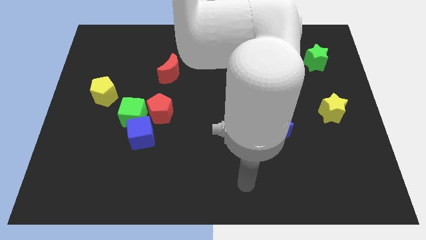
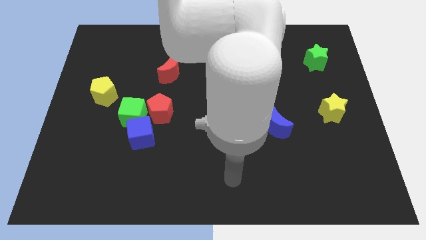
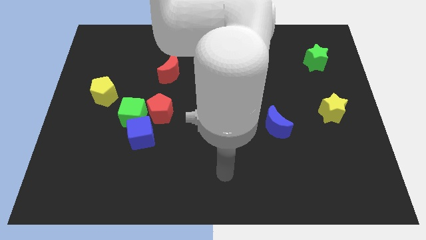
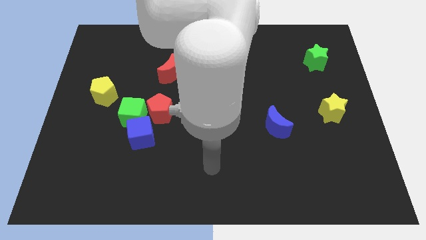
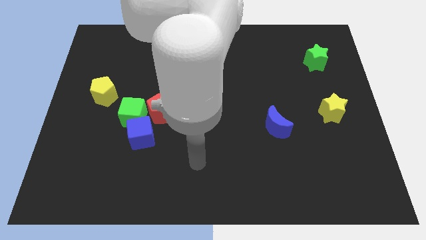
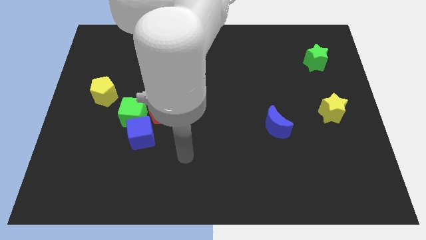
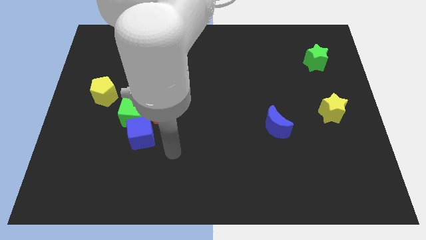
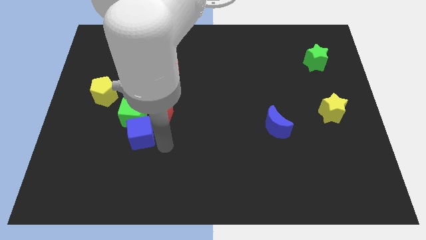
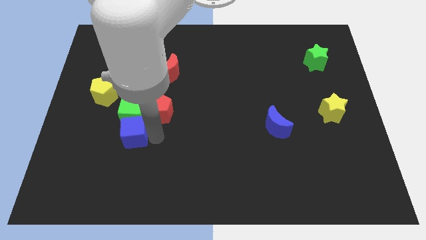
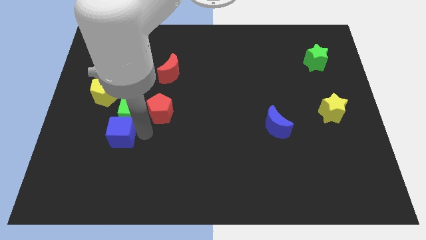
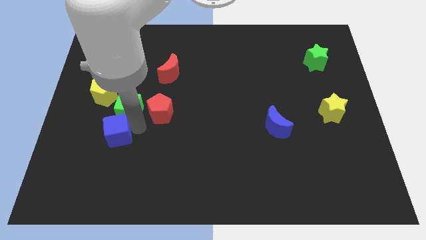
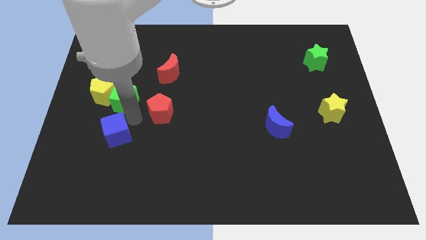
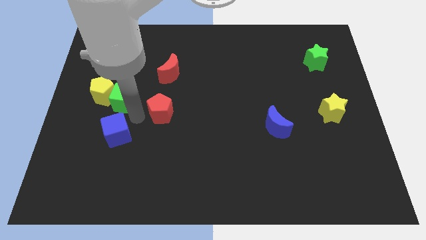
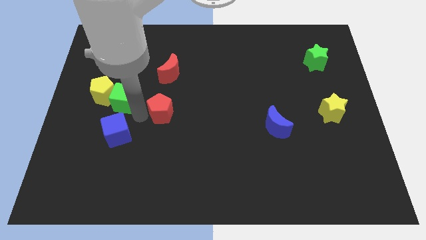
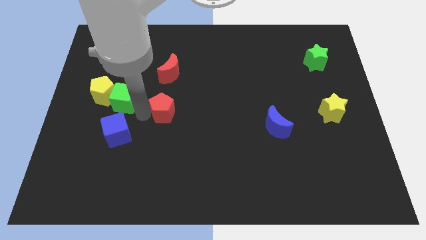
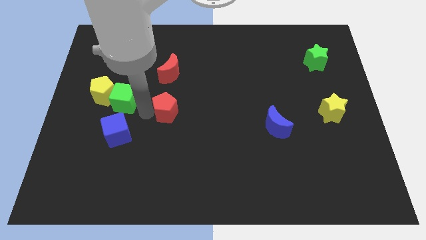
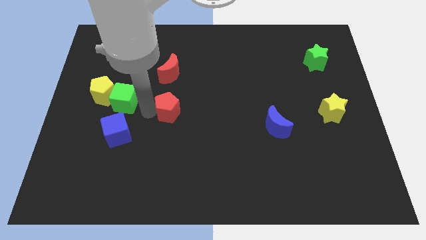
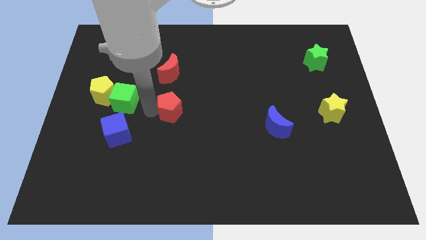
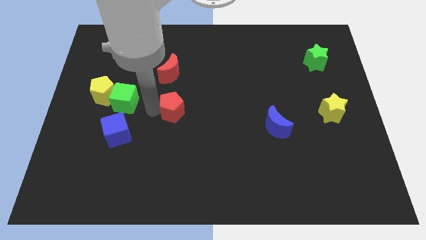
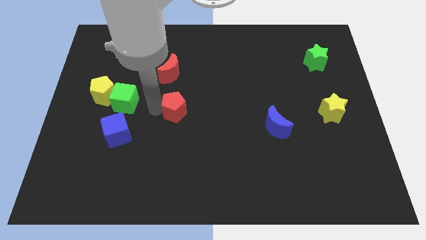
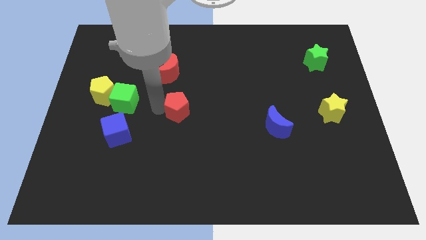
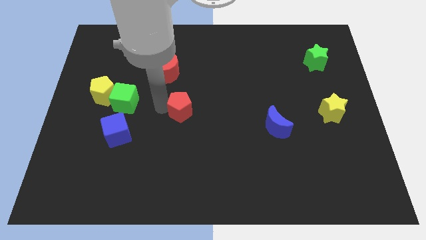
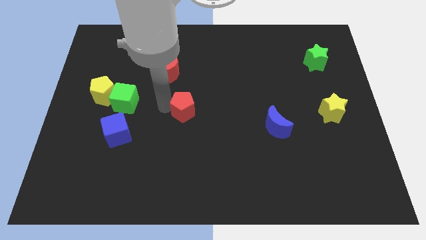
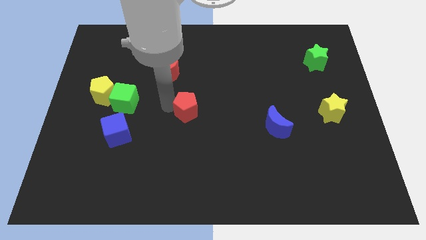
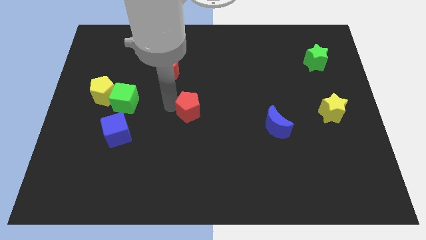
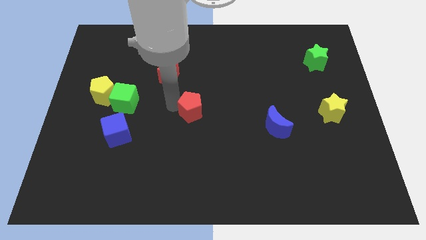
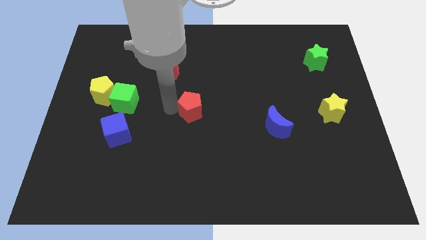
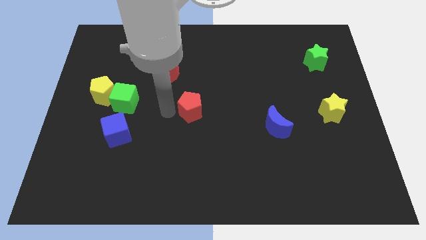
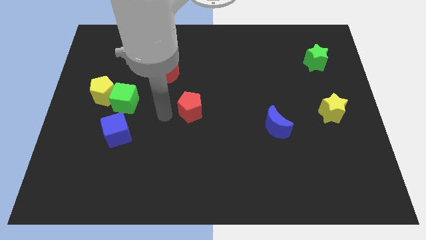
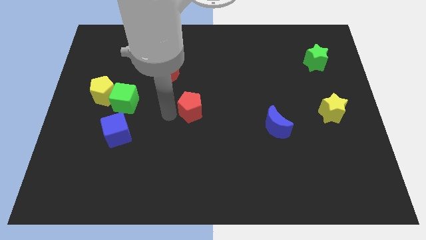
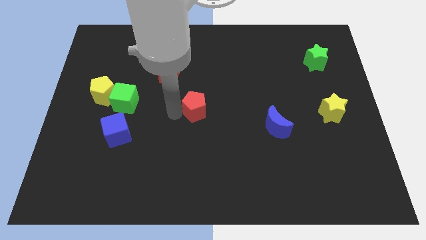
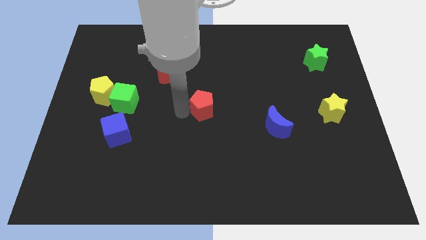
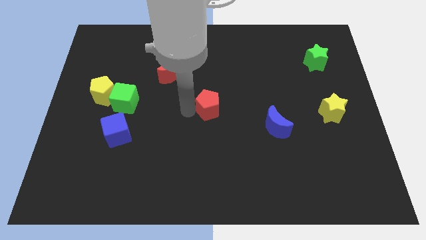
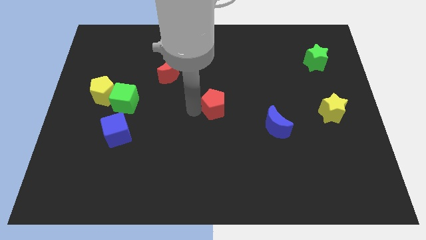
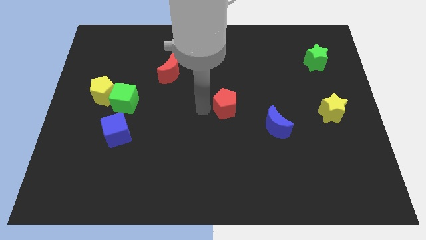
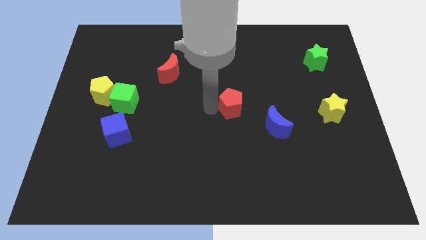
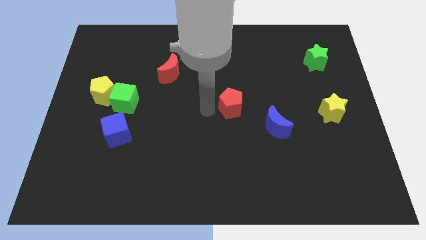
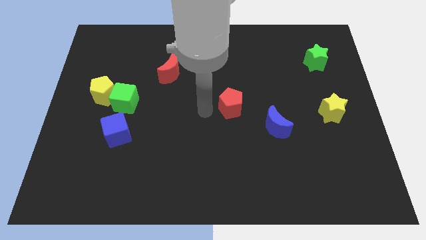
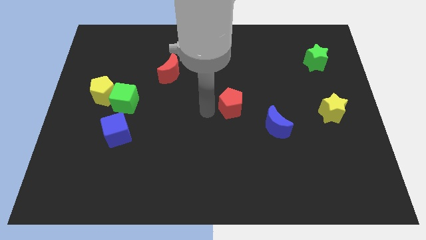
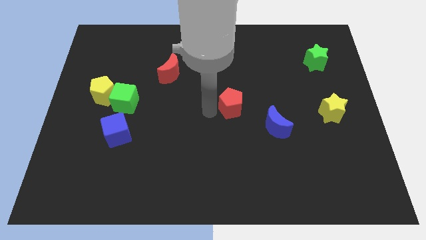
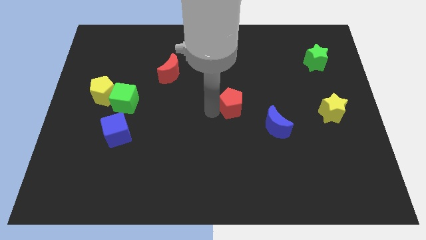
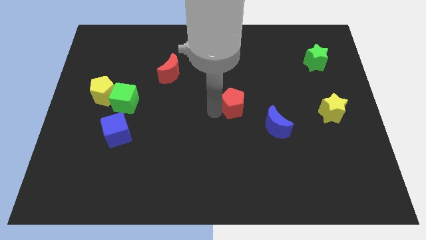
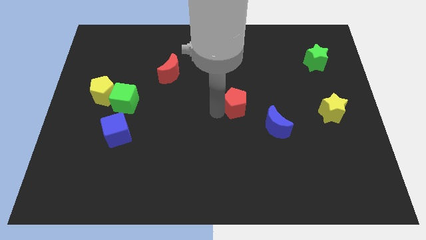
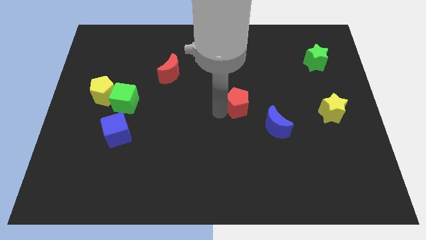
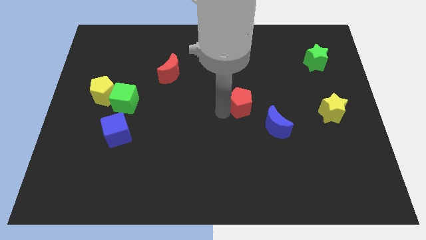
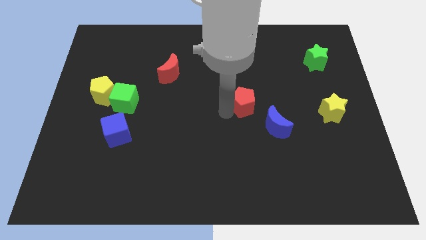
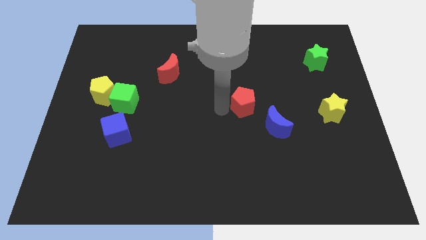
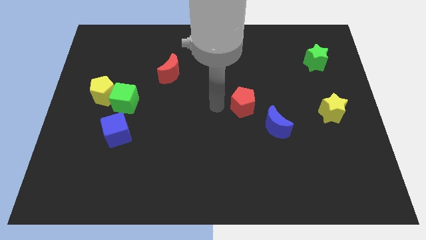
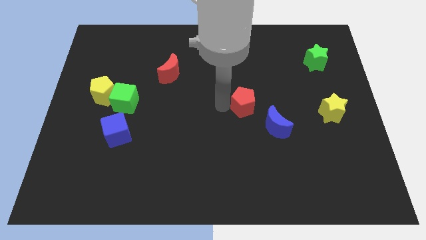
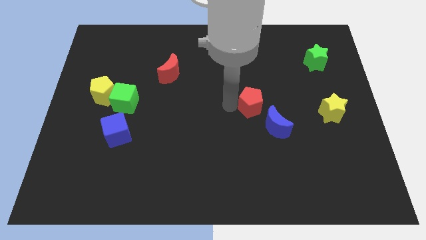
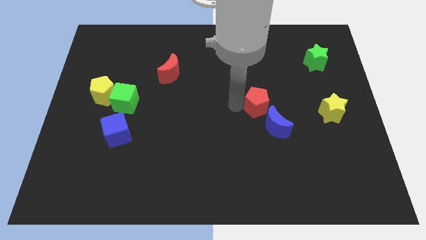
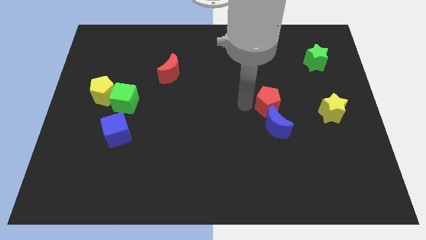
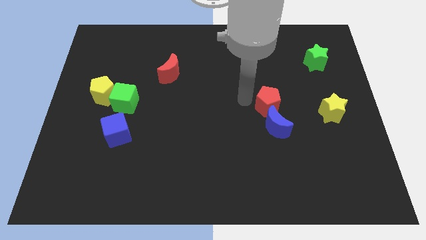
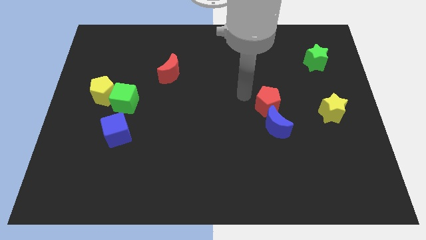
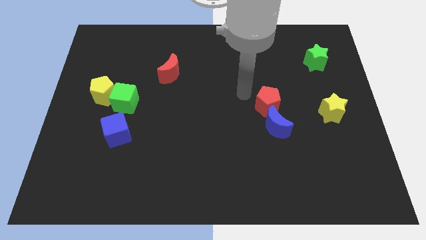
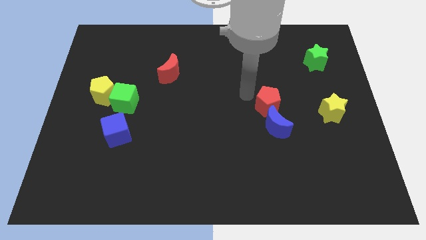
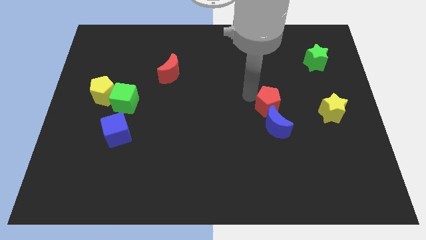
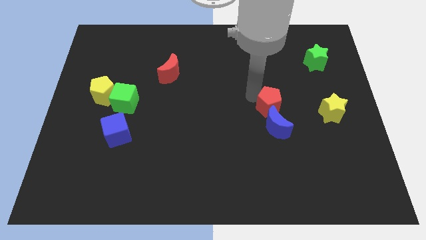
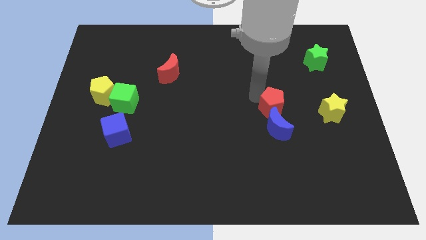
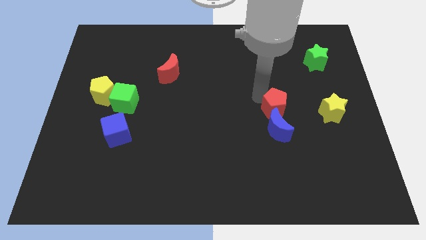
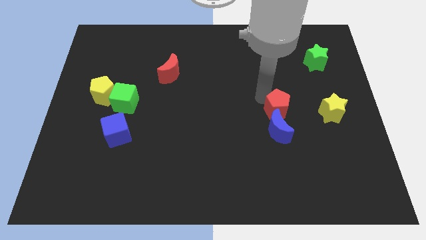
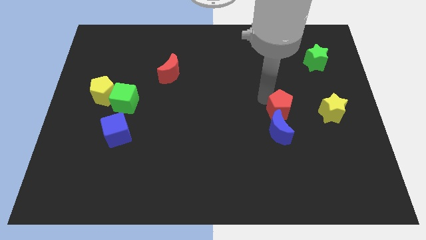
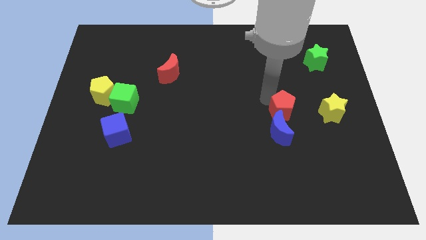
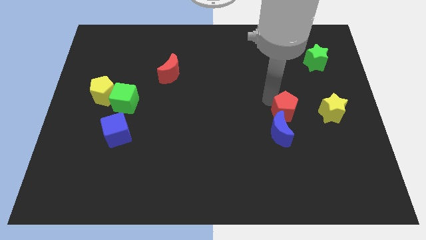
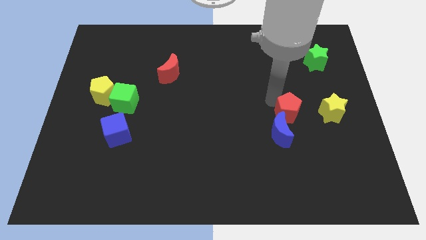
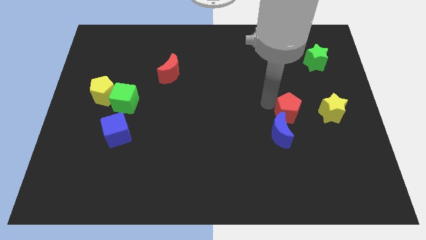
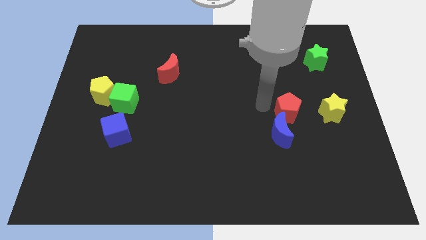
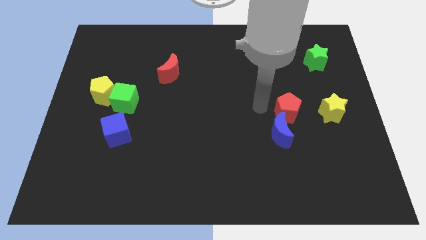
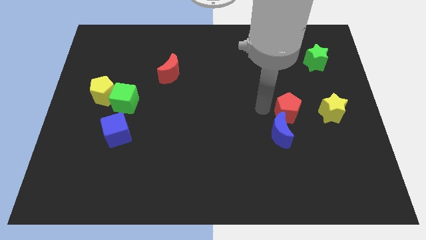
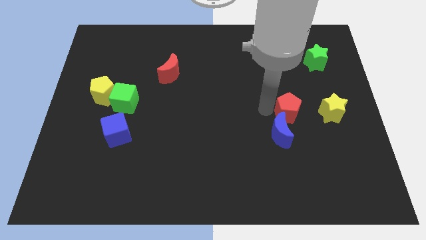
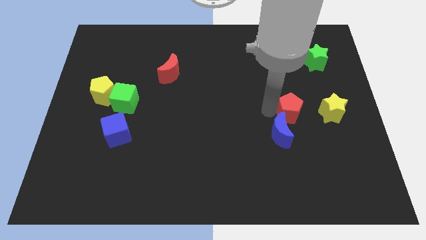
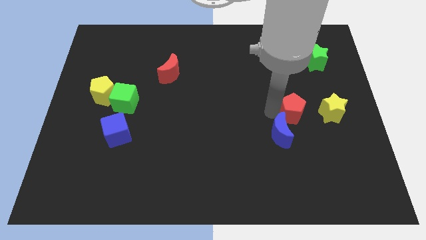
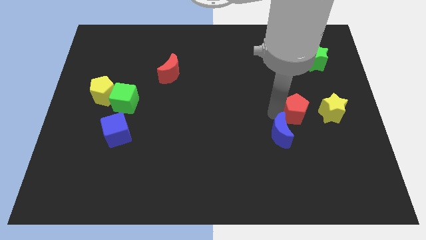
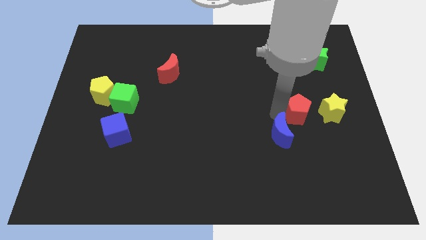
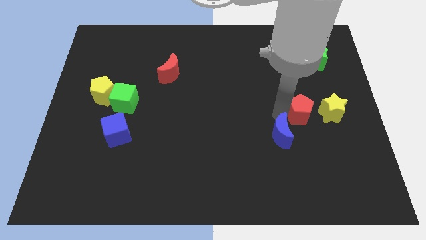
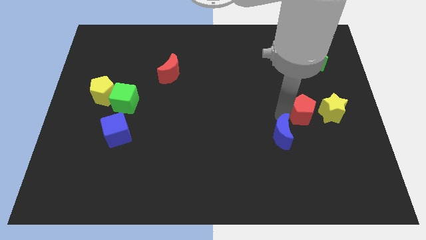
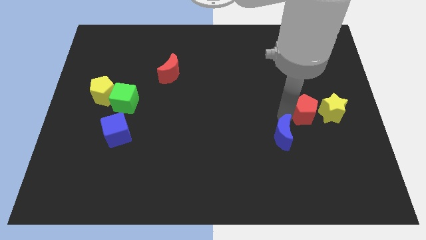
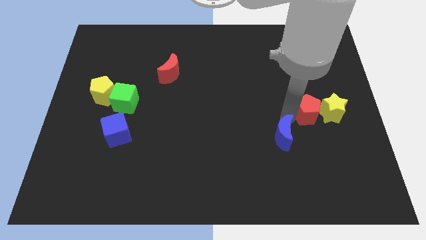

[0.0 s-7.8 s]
slide the red pentagon next to the yellow star

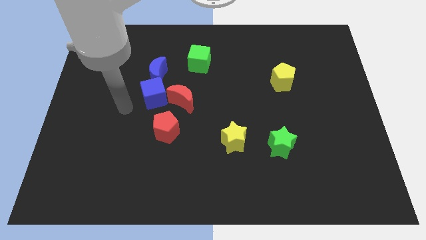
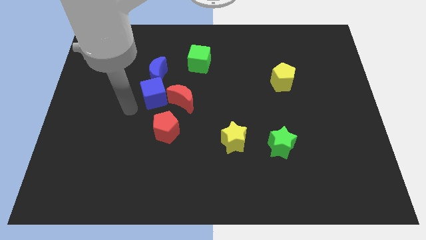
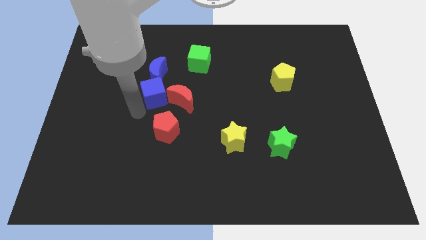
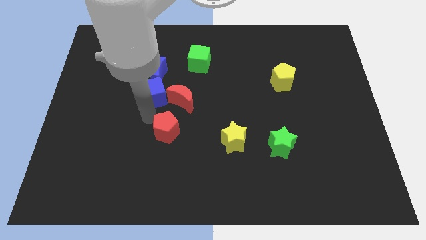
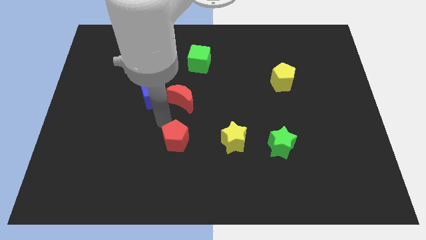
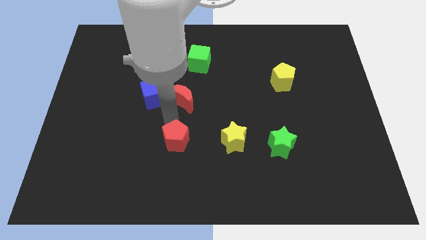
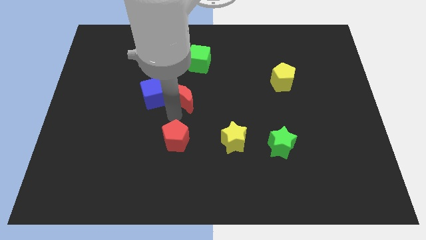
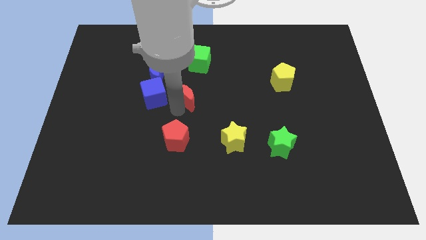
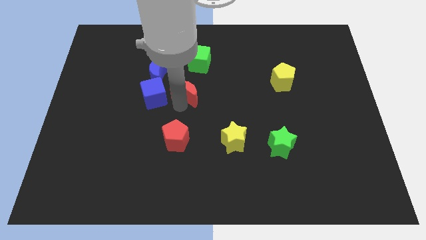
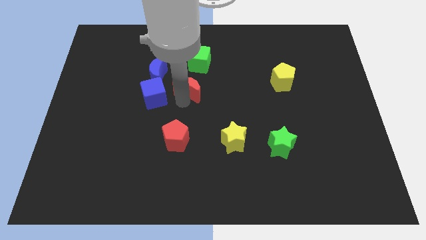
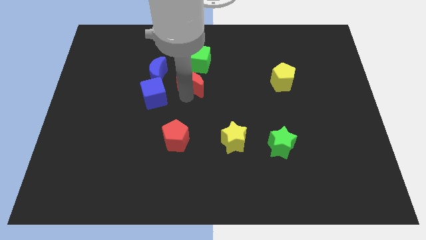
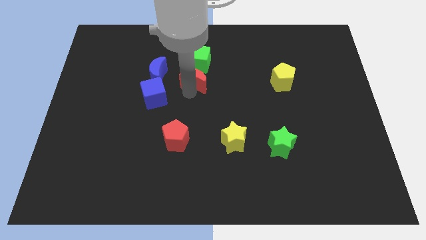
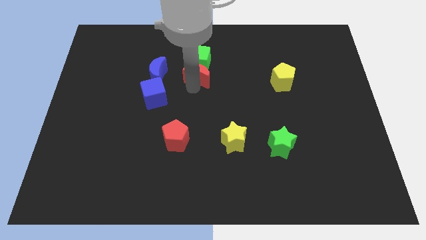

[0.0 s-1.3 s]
put the red moon next to the green cube
